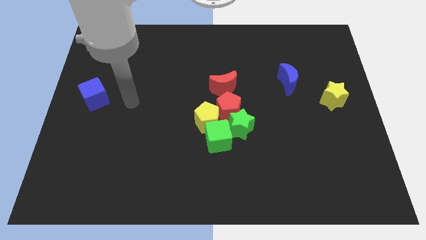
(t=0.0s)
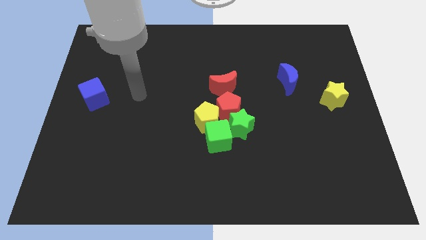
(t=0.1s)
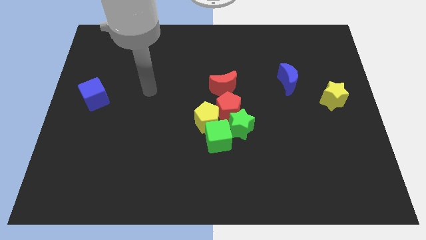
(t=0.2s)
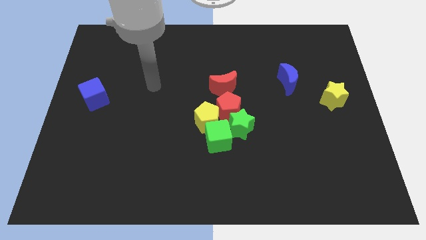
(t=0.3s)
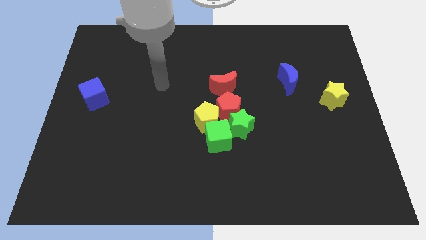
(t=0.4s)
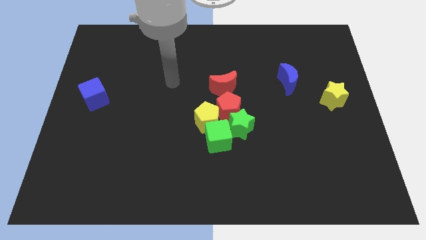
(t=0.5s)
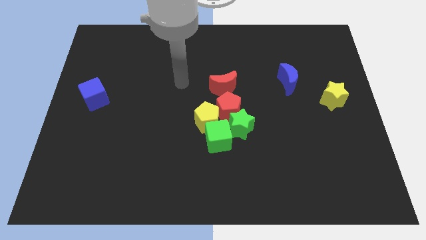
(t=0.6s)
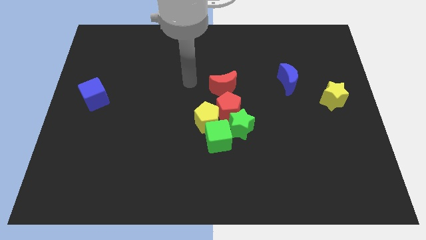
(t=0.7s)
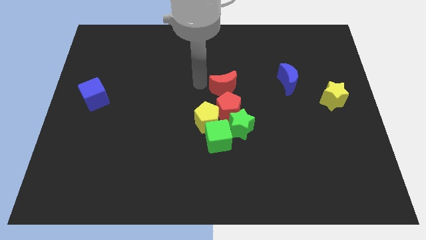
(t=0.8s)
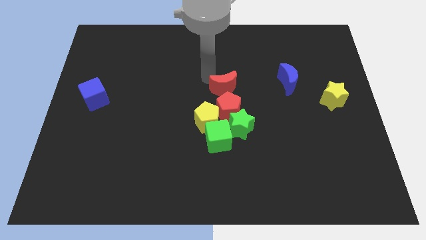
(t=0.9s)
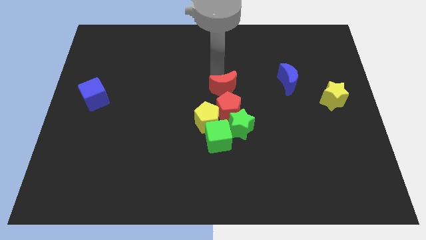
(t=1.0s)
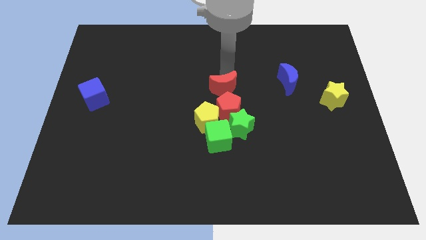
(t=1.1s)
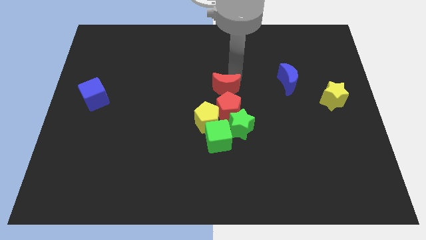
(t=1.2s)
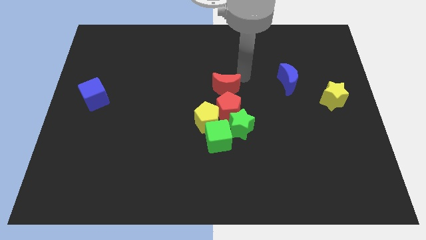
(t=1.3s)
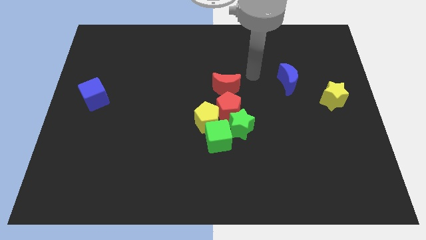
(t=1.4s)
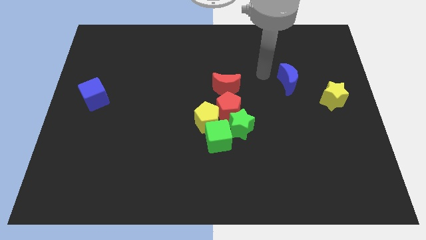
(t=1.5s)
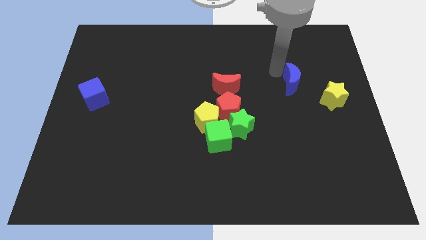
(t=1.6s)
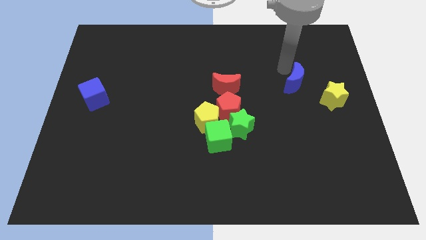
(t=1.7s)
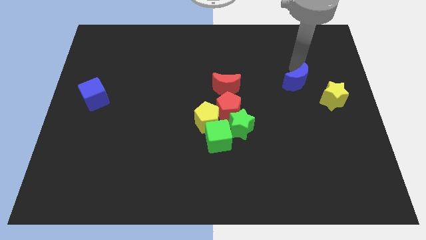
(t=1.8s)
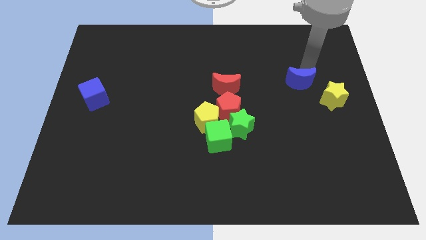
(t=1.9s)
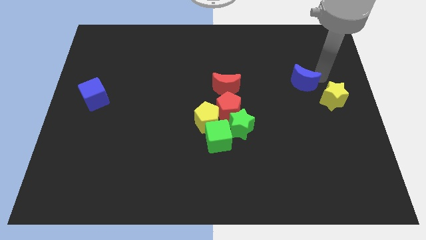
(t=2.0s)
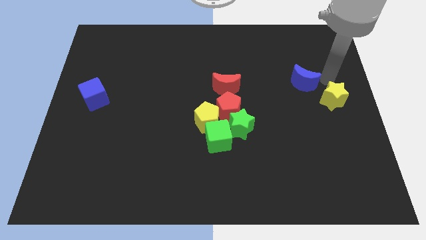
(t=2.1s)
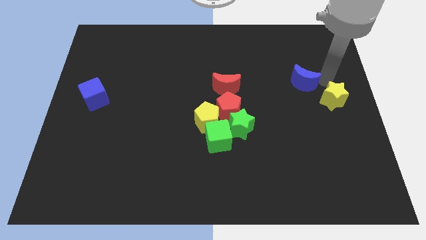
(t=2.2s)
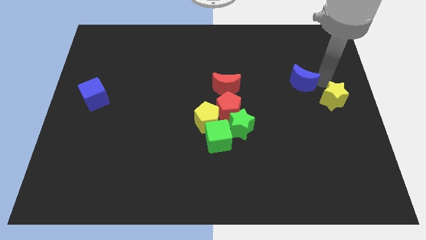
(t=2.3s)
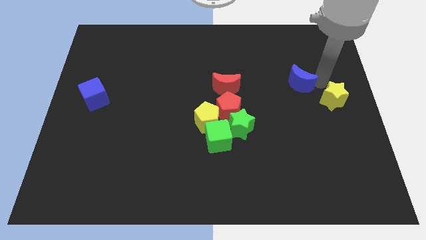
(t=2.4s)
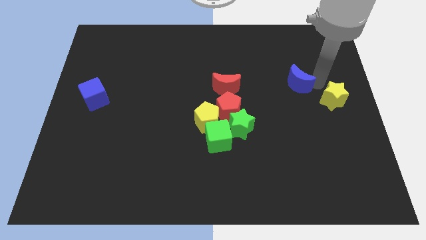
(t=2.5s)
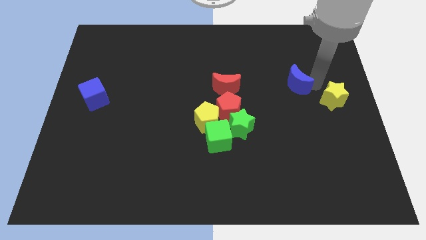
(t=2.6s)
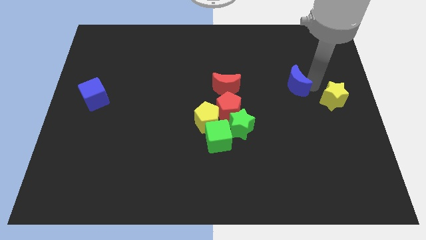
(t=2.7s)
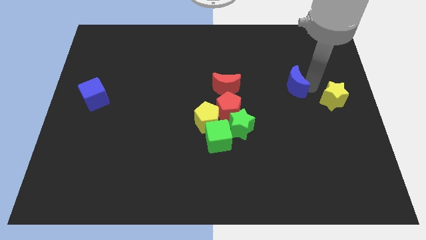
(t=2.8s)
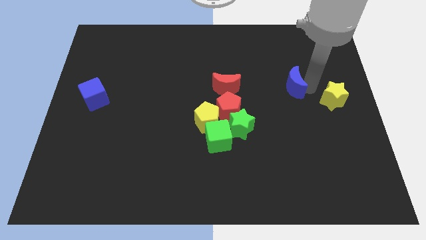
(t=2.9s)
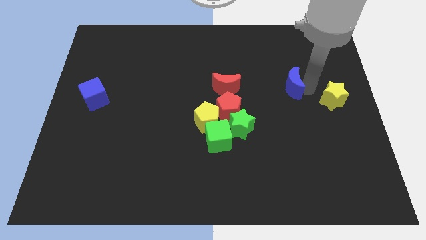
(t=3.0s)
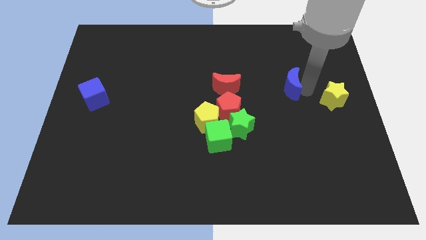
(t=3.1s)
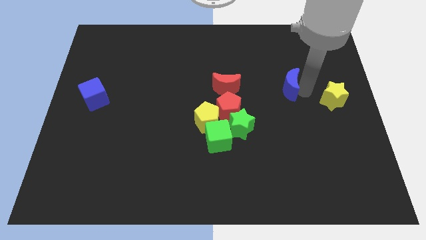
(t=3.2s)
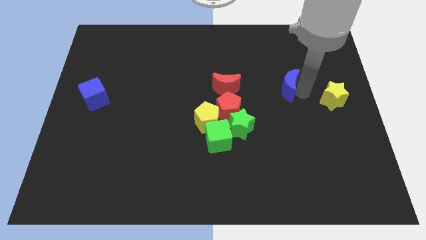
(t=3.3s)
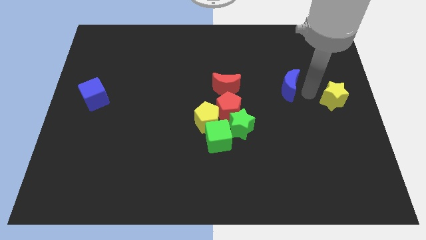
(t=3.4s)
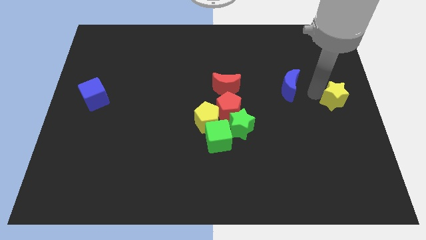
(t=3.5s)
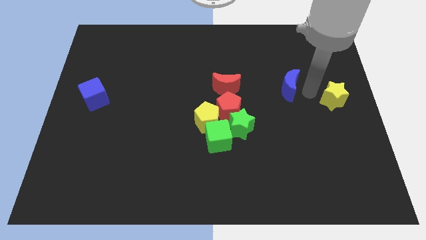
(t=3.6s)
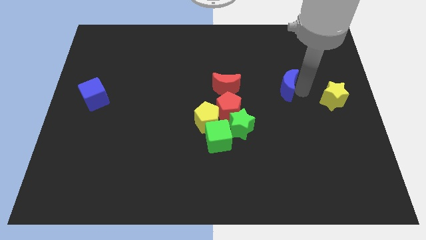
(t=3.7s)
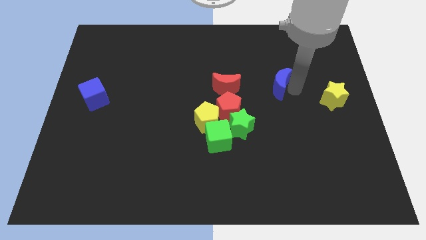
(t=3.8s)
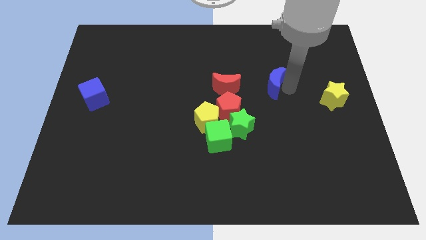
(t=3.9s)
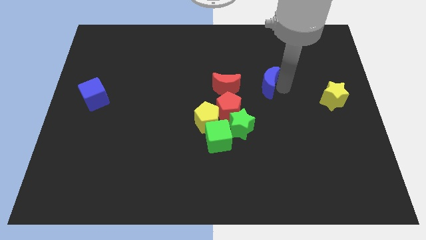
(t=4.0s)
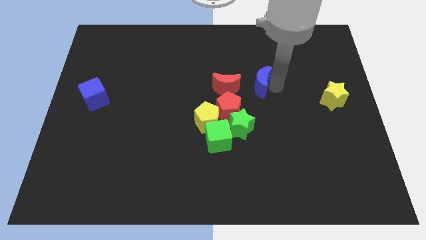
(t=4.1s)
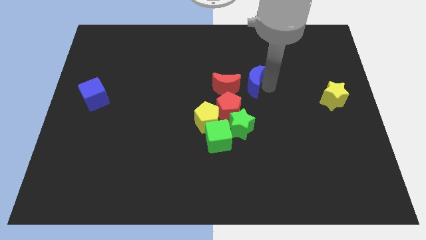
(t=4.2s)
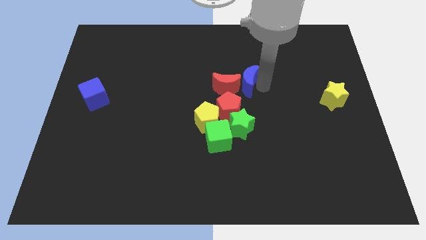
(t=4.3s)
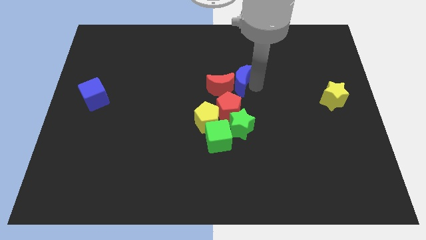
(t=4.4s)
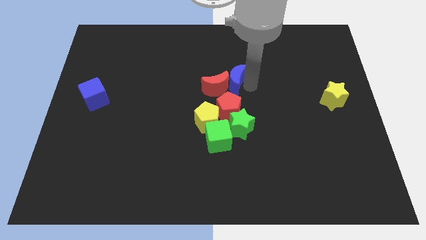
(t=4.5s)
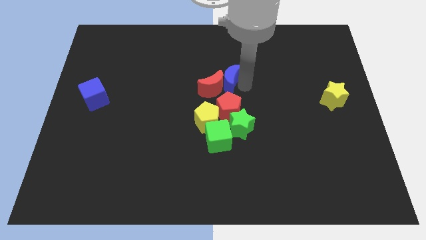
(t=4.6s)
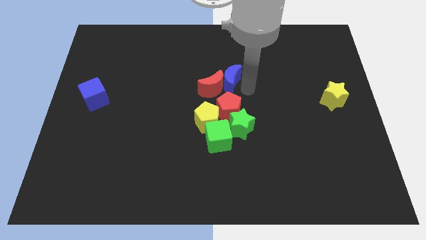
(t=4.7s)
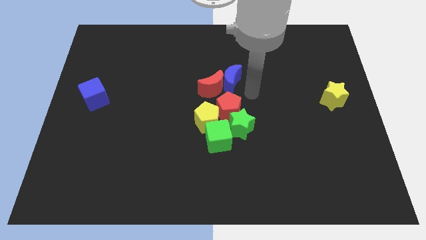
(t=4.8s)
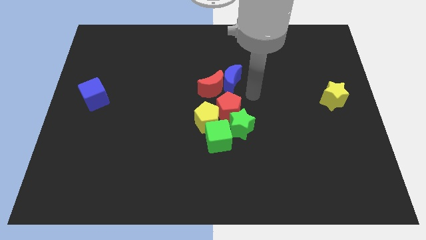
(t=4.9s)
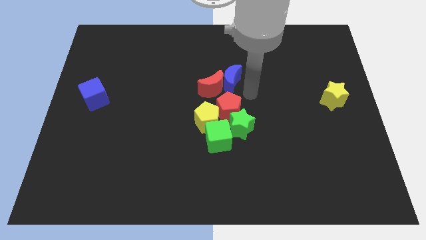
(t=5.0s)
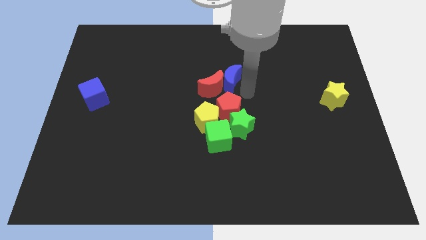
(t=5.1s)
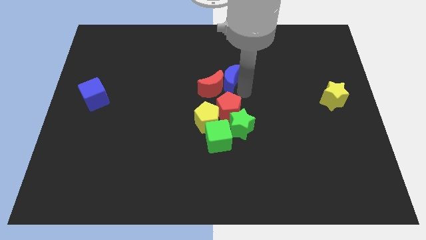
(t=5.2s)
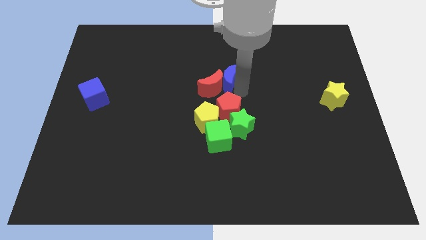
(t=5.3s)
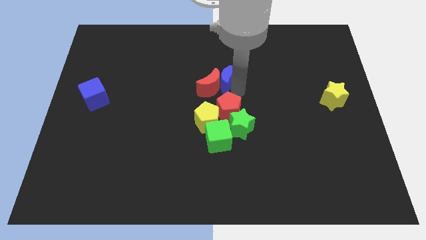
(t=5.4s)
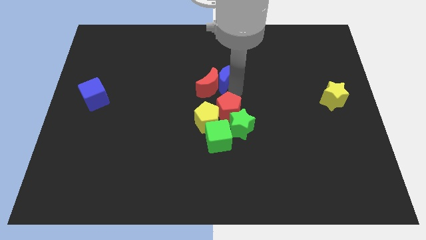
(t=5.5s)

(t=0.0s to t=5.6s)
move the blue moon to the top of the yellow pentagon

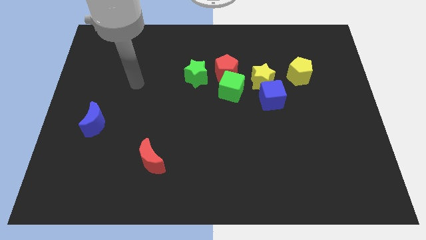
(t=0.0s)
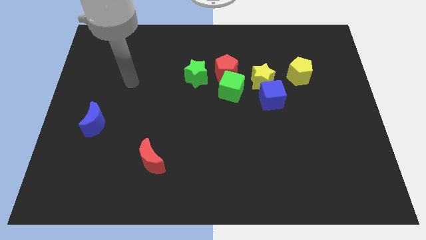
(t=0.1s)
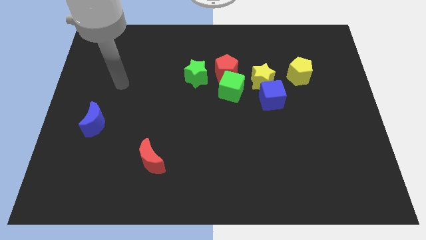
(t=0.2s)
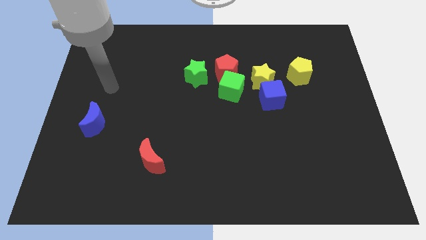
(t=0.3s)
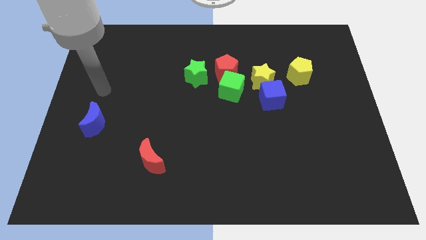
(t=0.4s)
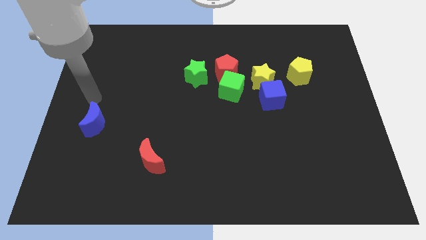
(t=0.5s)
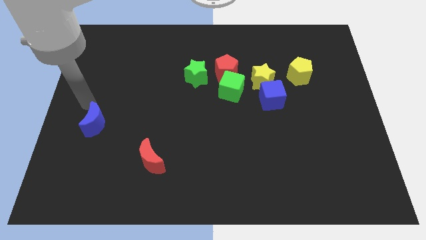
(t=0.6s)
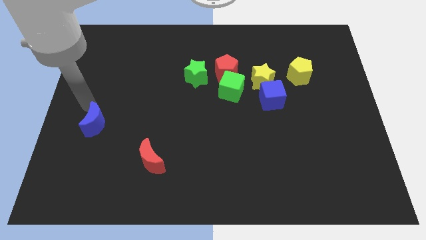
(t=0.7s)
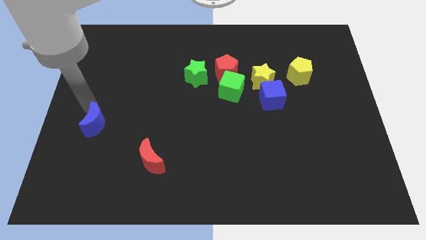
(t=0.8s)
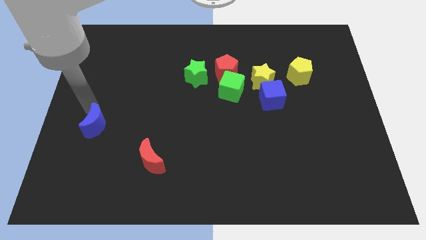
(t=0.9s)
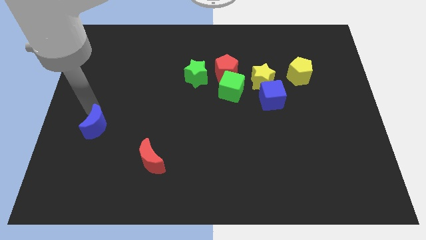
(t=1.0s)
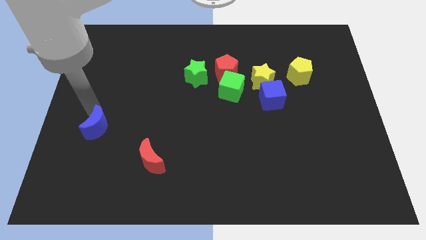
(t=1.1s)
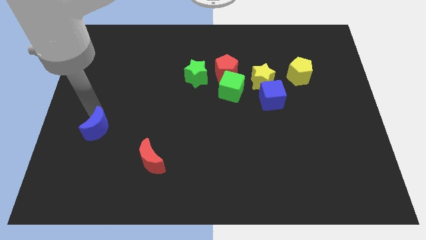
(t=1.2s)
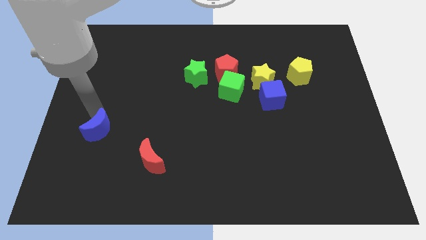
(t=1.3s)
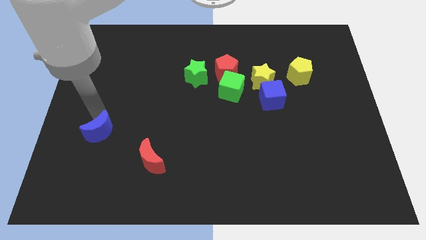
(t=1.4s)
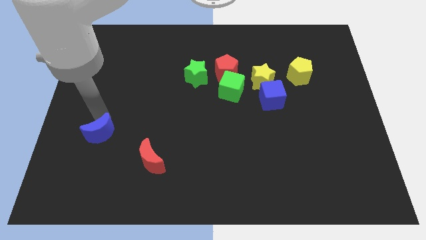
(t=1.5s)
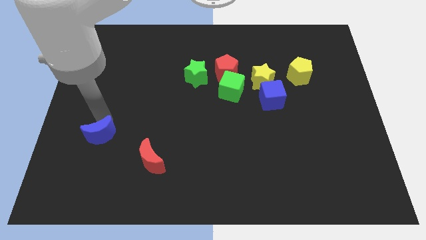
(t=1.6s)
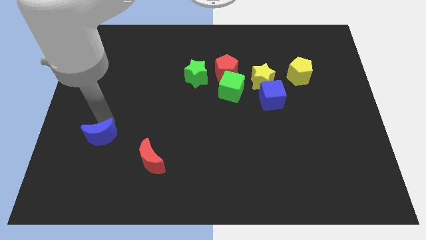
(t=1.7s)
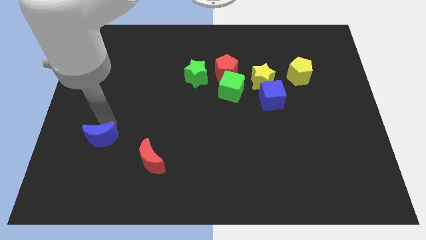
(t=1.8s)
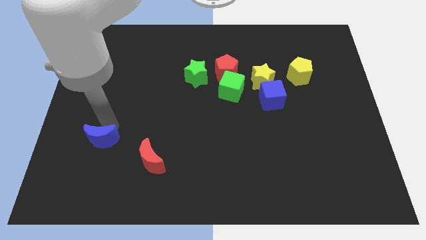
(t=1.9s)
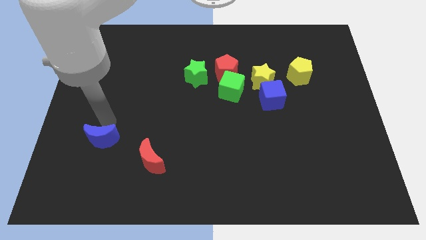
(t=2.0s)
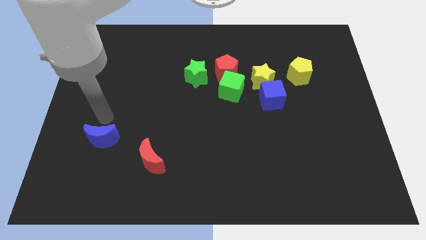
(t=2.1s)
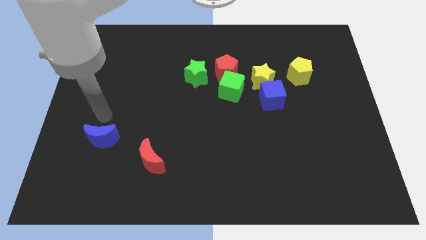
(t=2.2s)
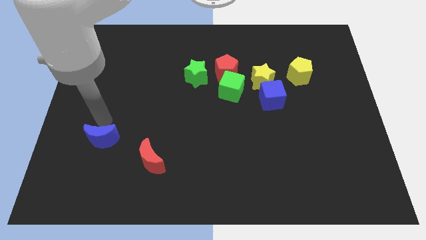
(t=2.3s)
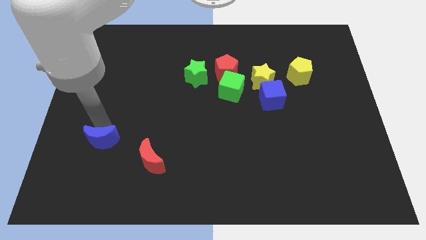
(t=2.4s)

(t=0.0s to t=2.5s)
move the blue moon left of the red moon
